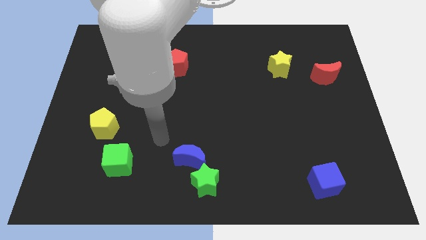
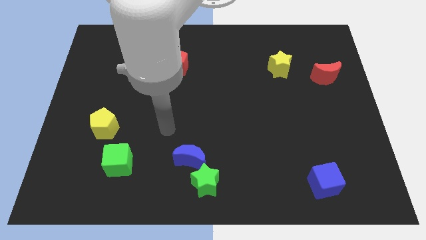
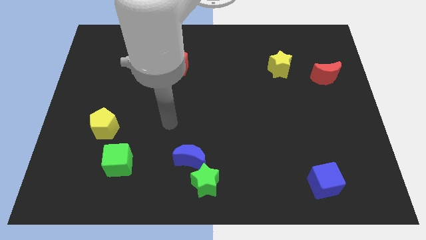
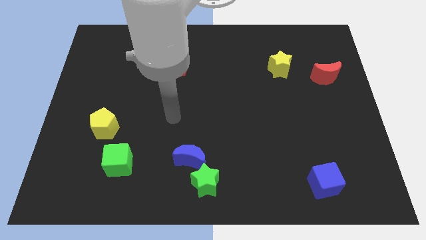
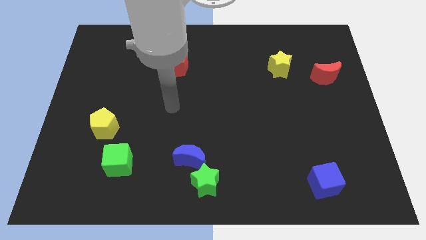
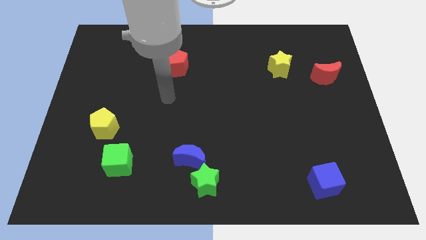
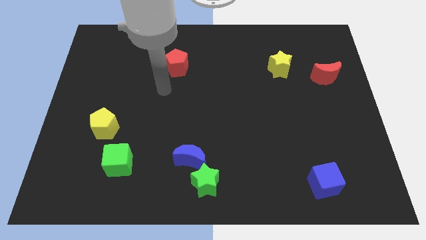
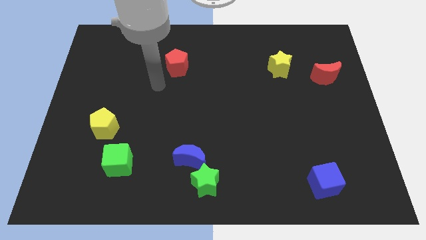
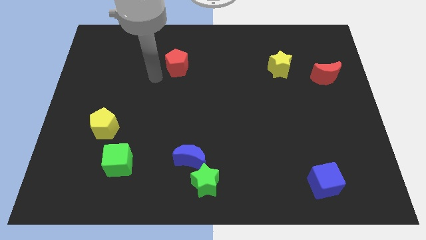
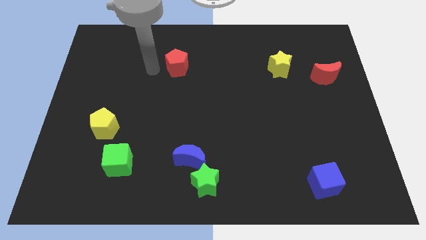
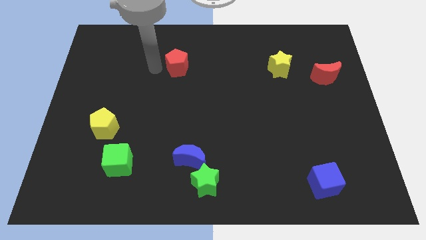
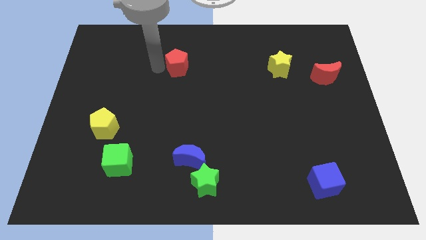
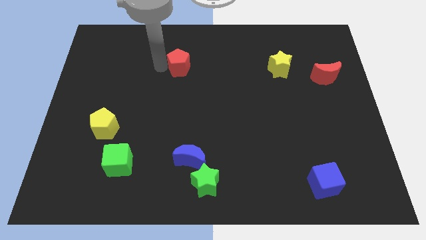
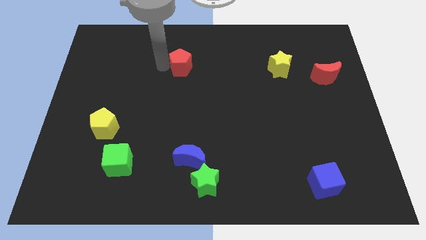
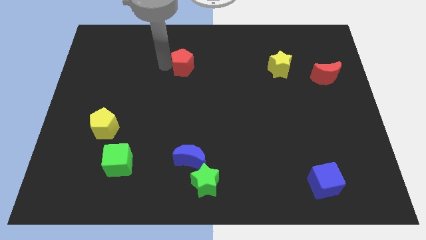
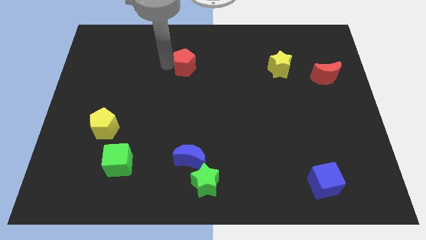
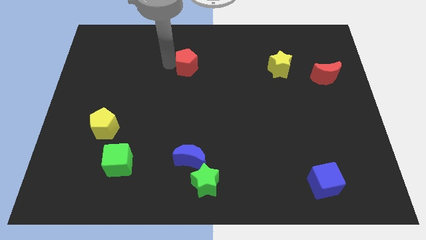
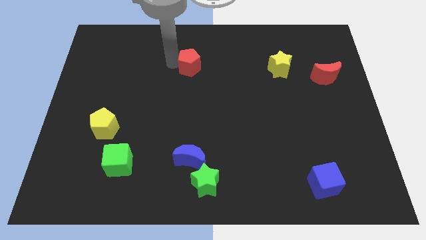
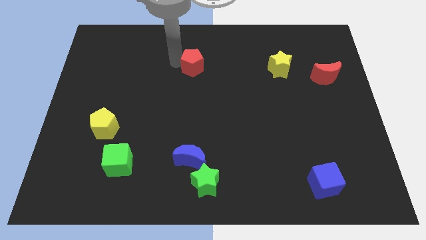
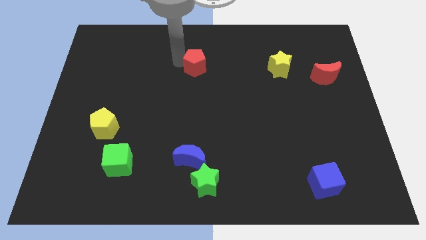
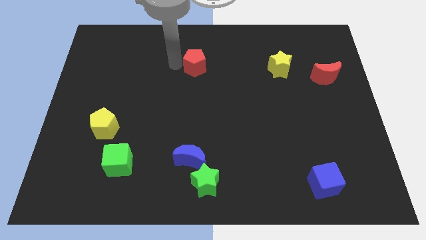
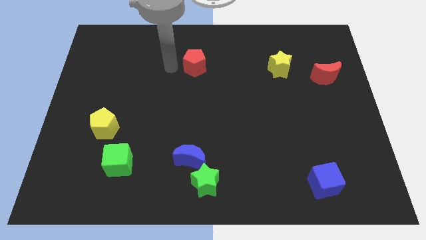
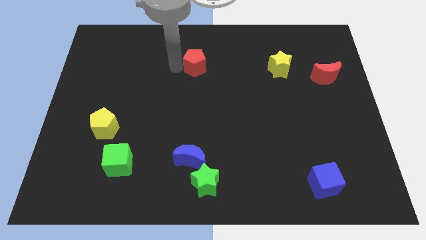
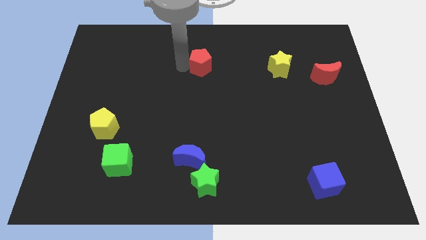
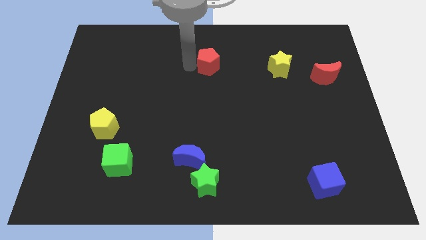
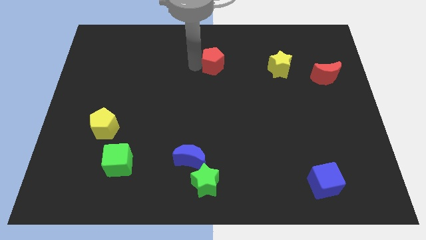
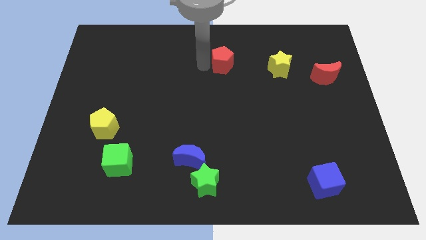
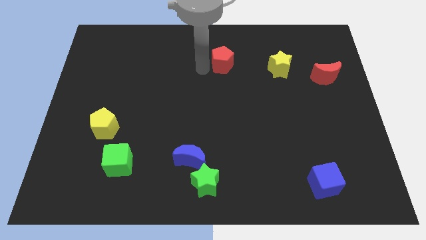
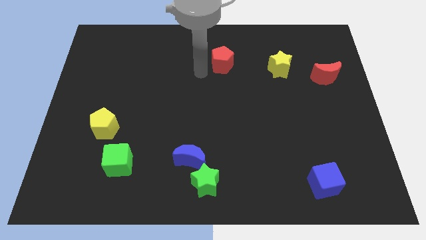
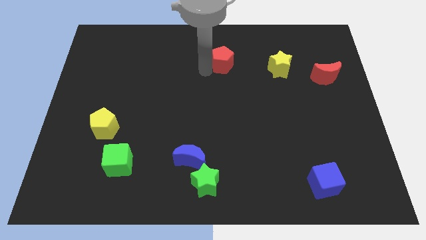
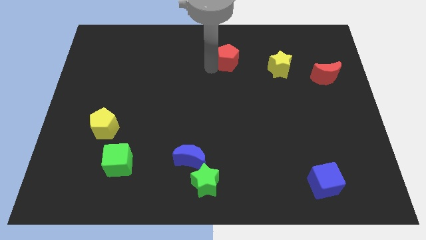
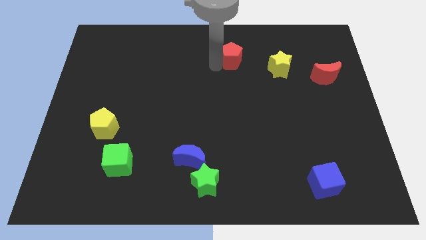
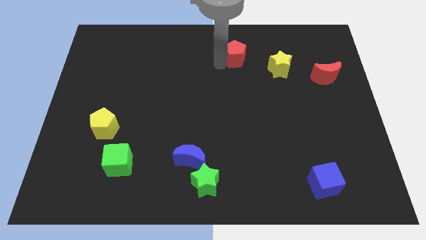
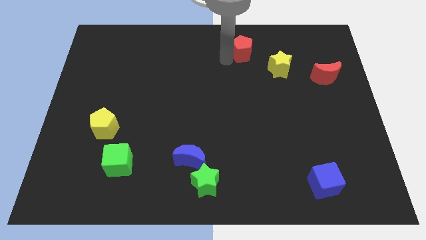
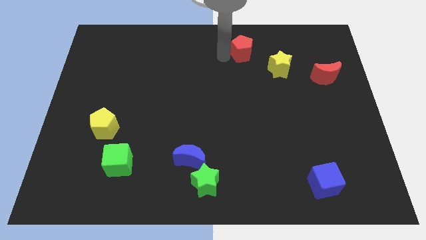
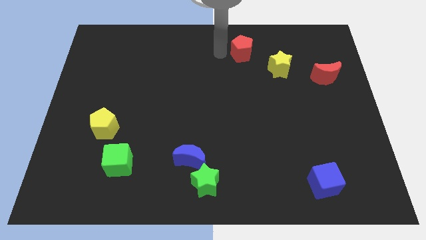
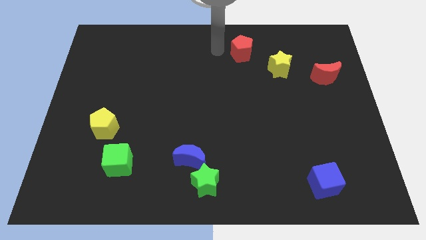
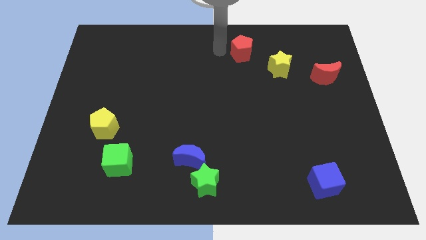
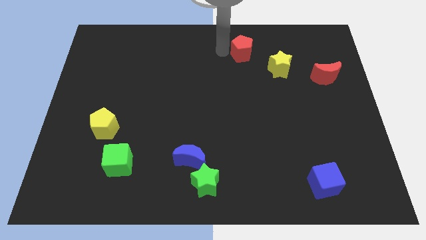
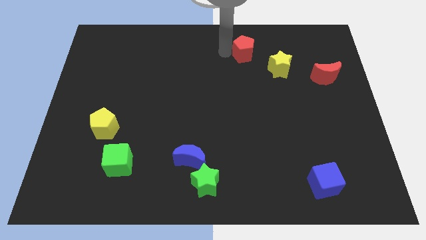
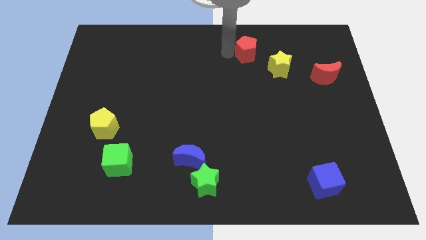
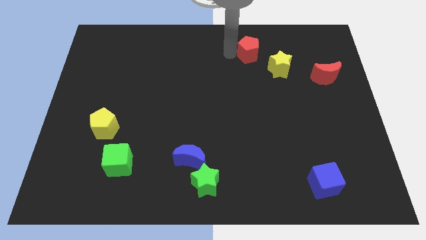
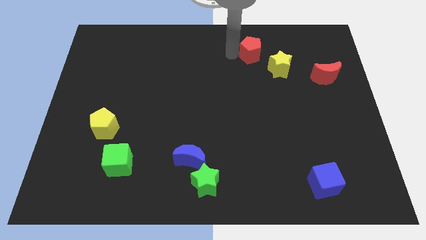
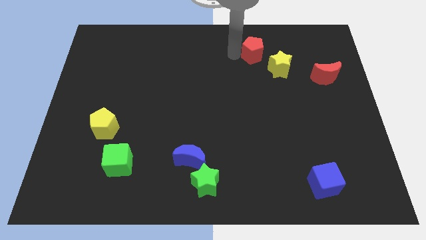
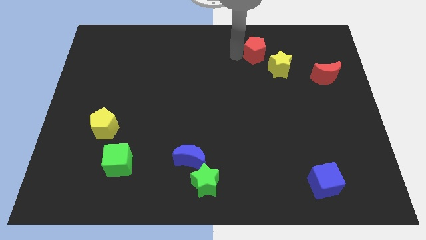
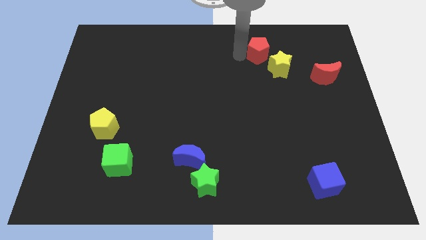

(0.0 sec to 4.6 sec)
push the red pentagon right

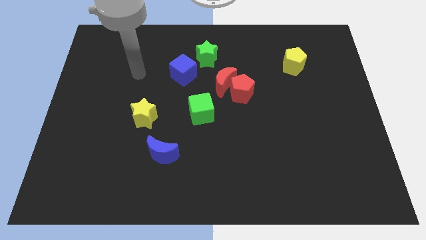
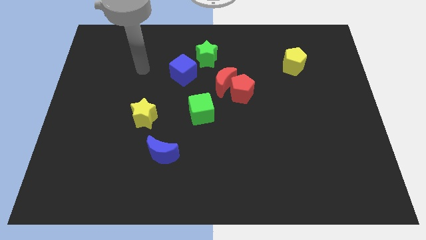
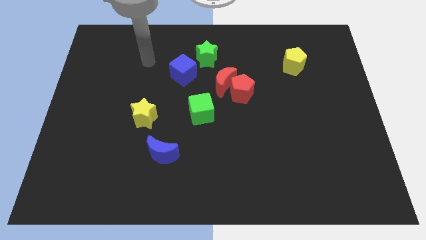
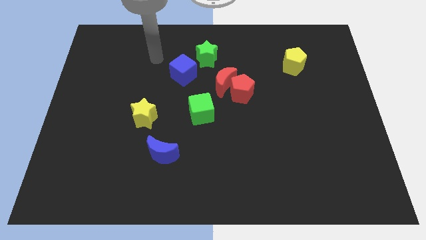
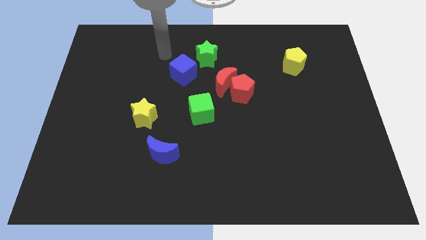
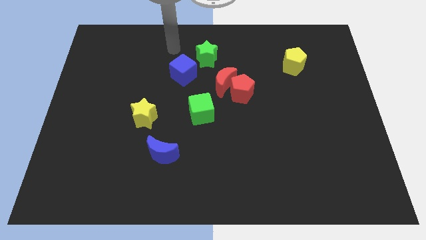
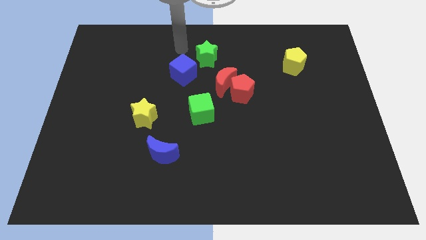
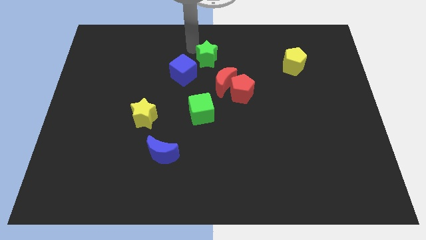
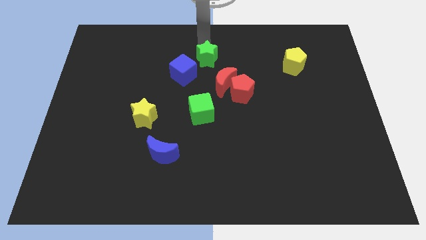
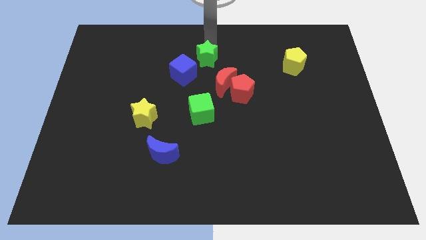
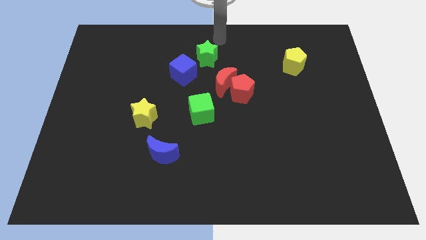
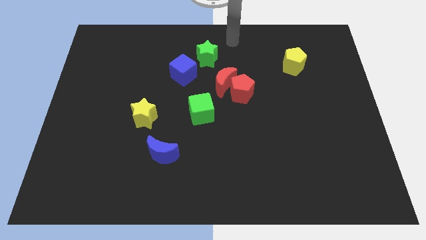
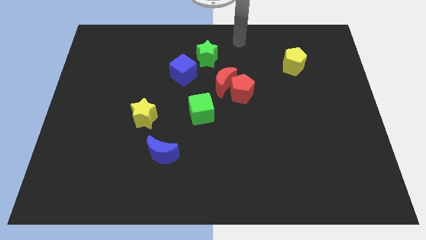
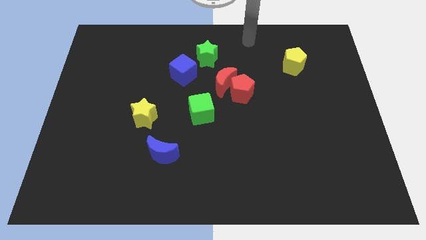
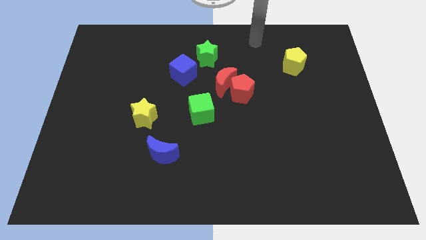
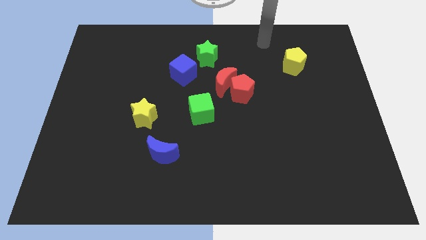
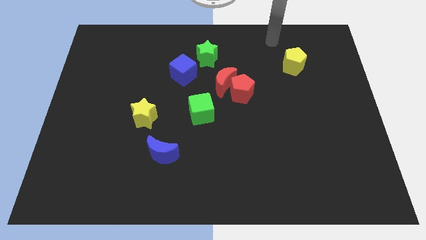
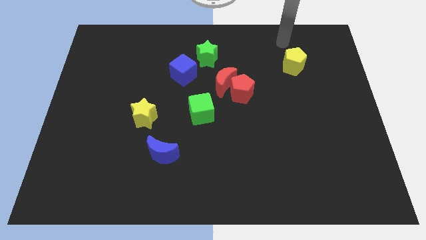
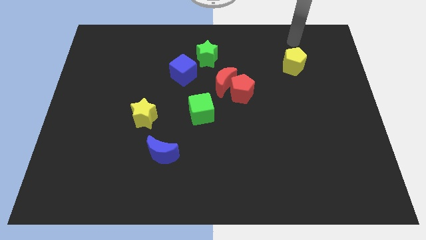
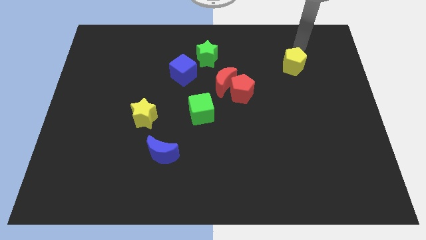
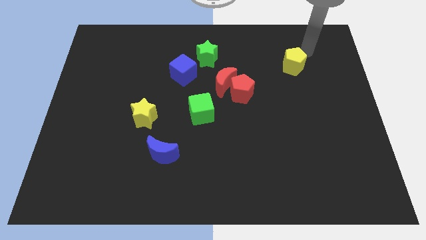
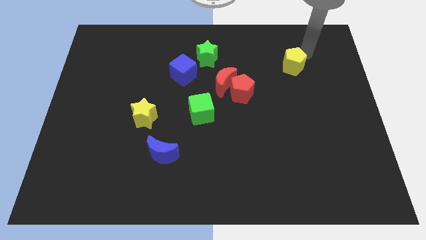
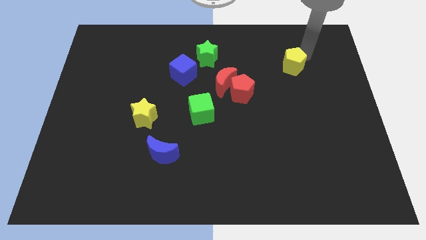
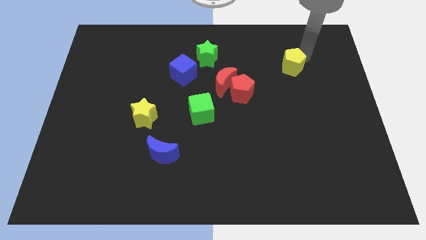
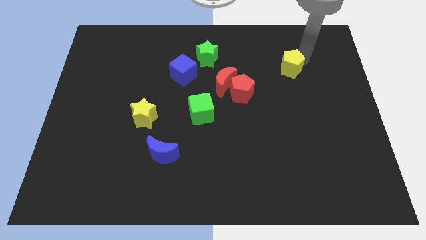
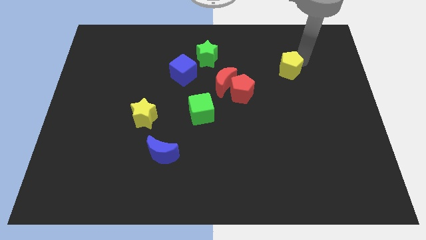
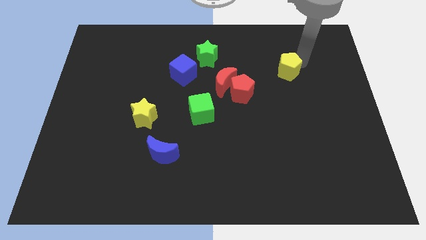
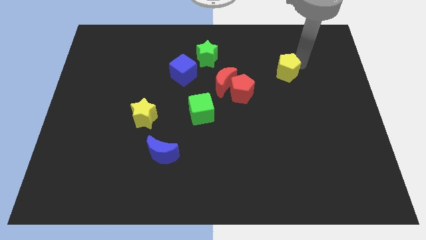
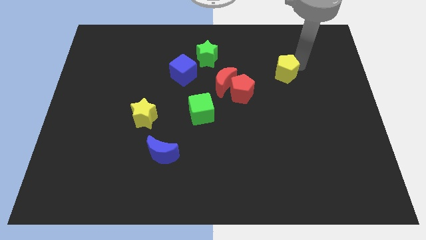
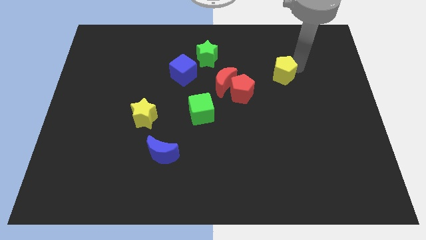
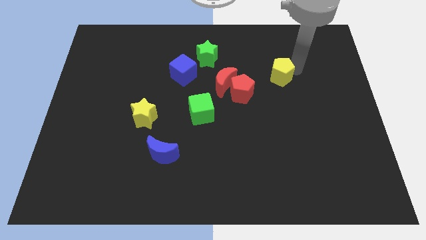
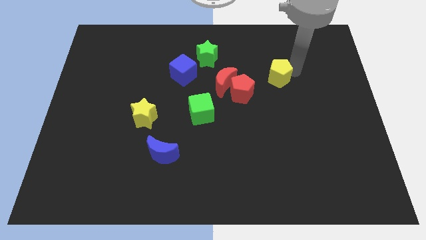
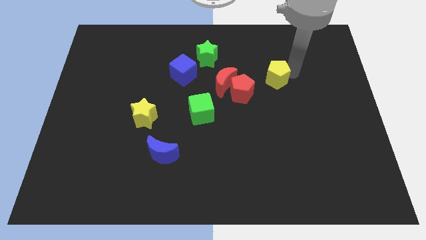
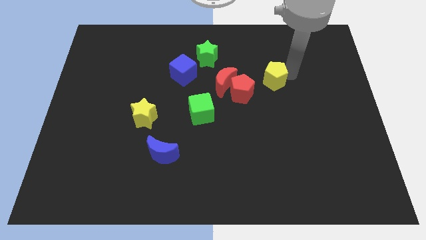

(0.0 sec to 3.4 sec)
slightly slide the yellow pentagon diagonally down and to the left
